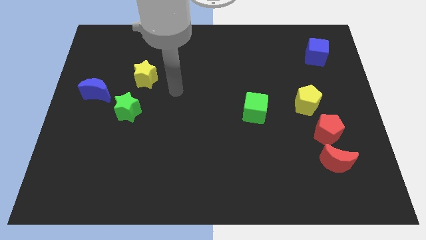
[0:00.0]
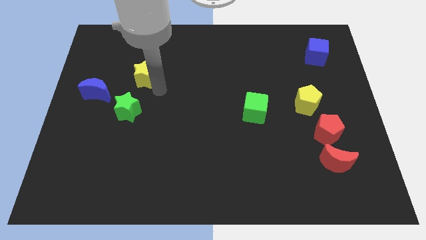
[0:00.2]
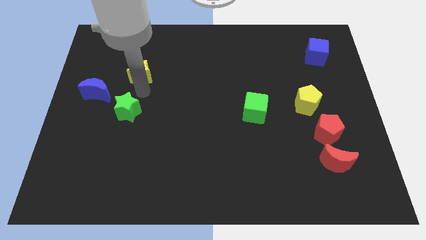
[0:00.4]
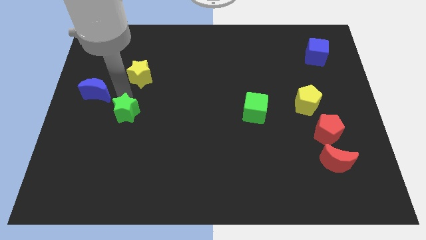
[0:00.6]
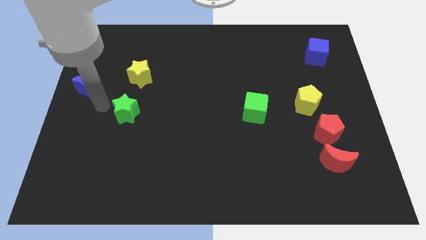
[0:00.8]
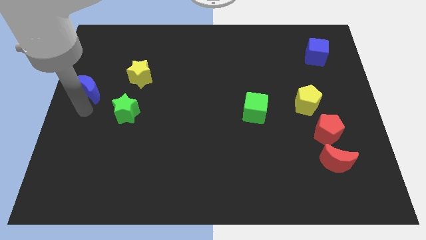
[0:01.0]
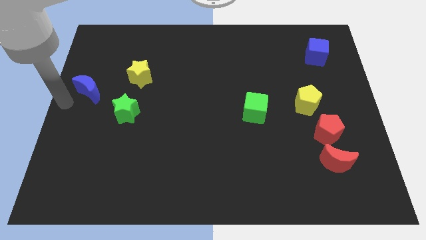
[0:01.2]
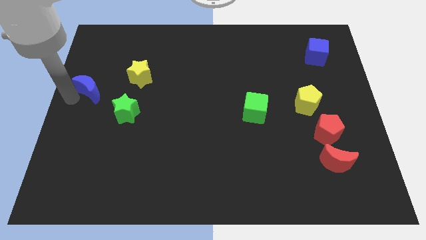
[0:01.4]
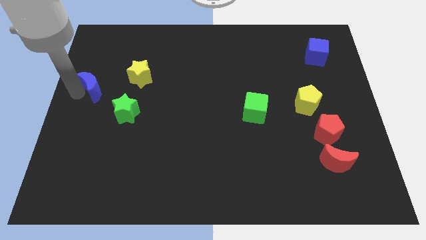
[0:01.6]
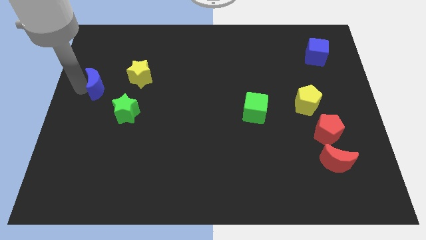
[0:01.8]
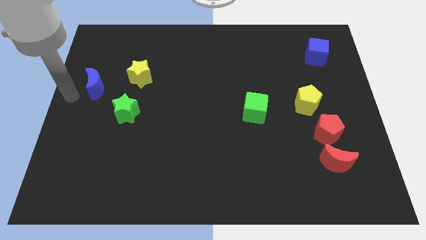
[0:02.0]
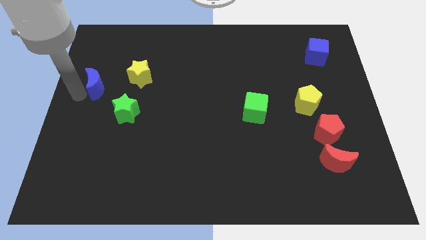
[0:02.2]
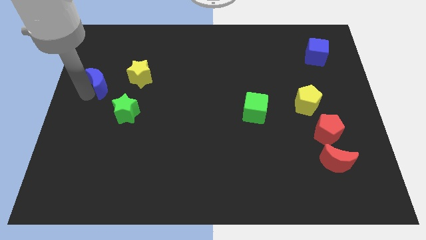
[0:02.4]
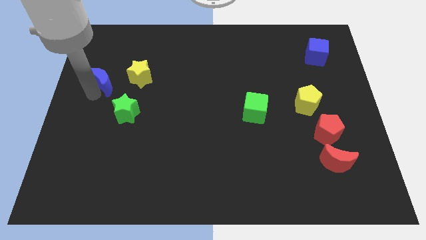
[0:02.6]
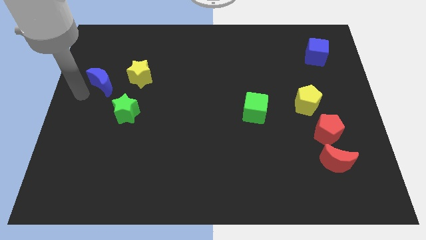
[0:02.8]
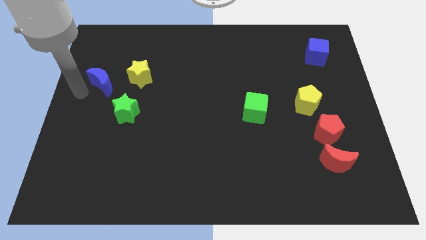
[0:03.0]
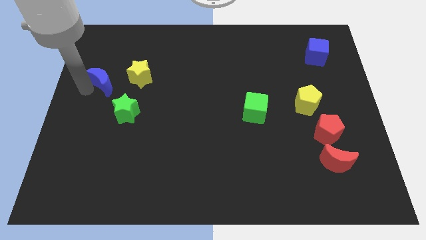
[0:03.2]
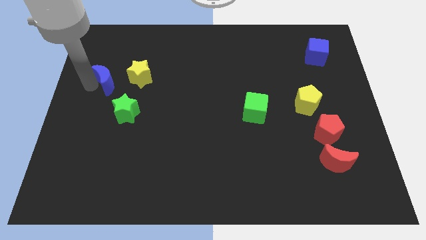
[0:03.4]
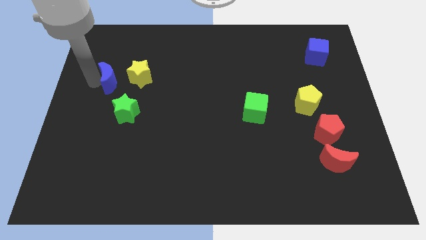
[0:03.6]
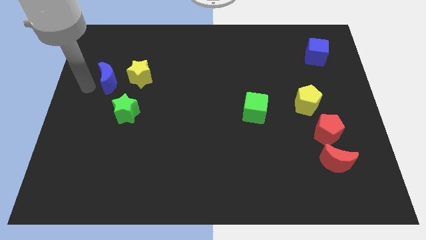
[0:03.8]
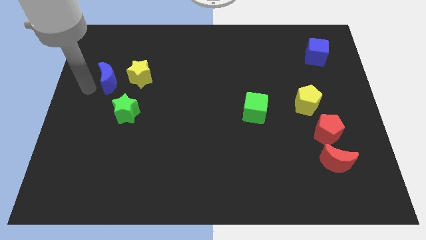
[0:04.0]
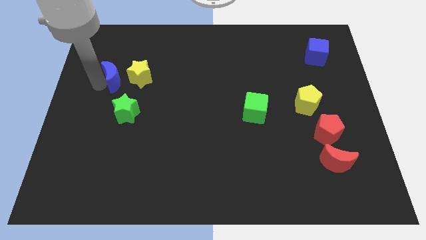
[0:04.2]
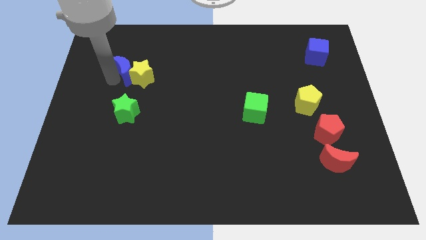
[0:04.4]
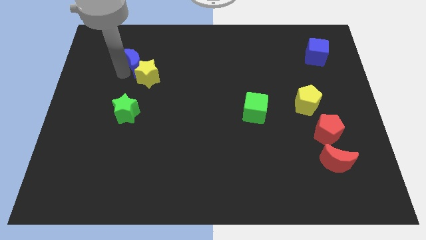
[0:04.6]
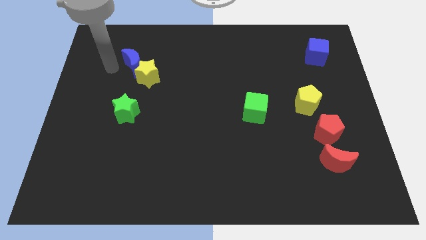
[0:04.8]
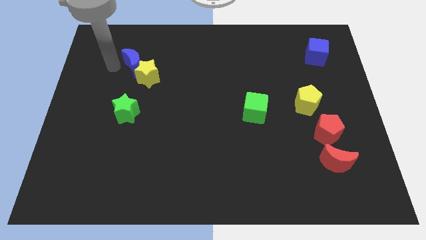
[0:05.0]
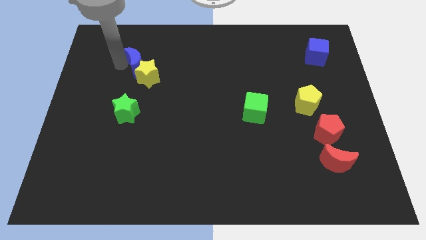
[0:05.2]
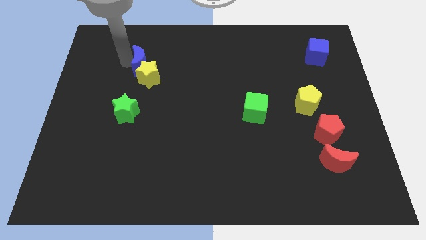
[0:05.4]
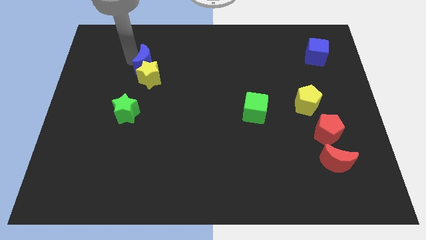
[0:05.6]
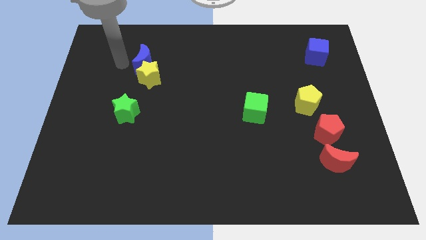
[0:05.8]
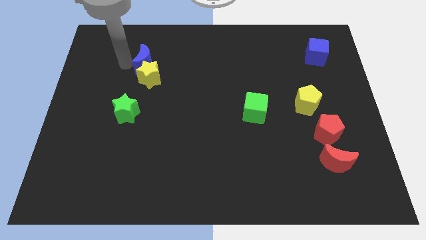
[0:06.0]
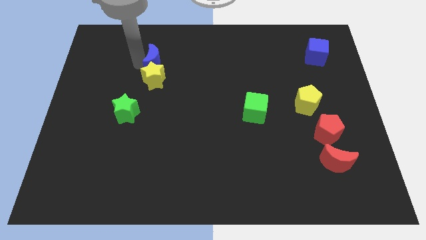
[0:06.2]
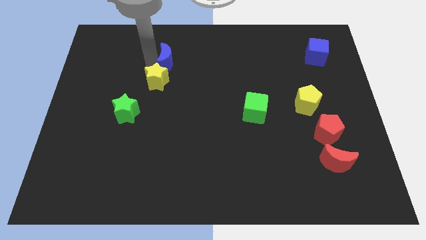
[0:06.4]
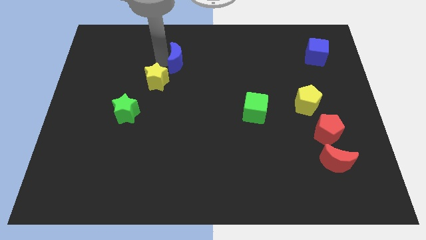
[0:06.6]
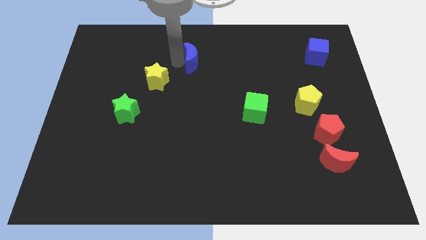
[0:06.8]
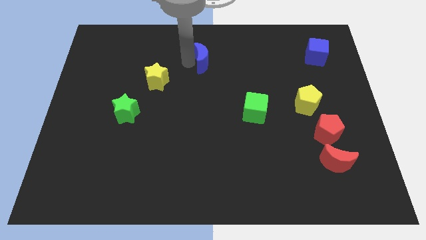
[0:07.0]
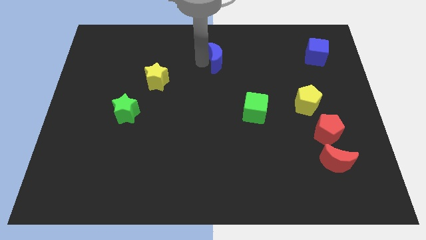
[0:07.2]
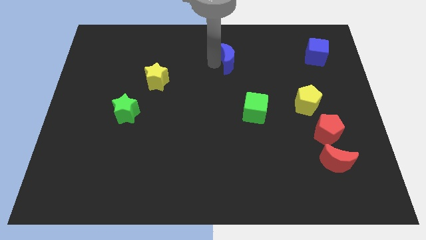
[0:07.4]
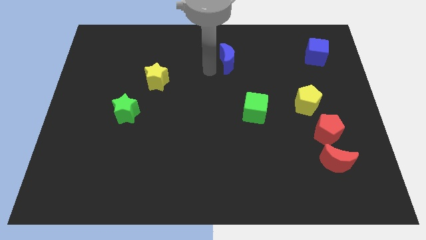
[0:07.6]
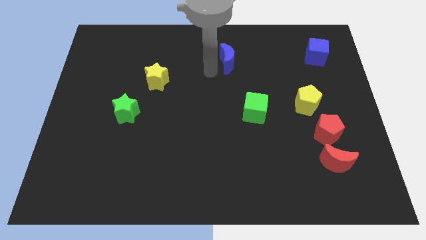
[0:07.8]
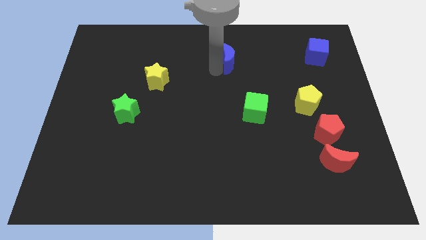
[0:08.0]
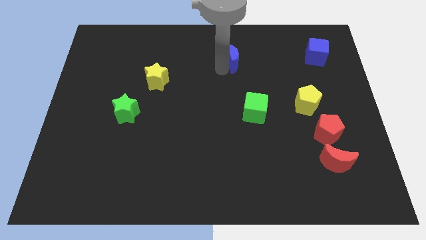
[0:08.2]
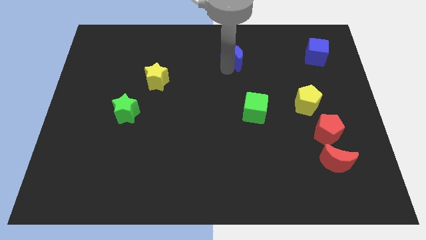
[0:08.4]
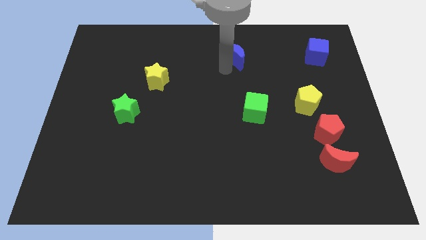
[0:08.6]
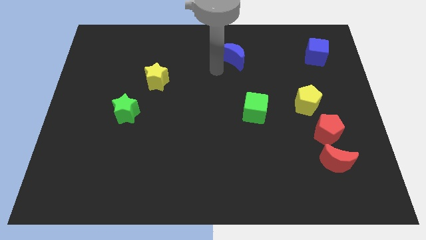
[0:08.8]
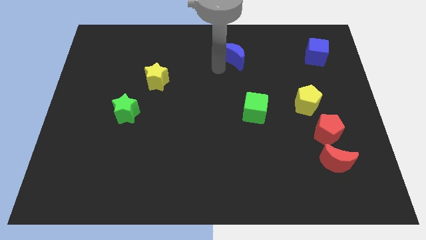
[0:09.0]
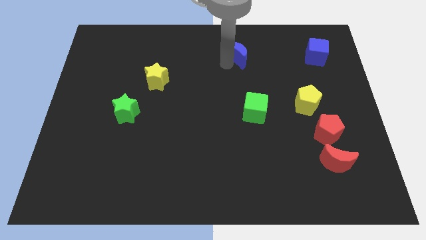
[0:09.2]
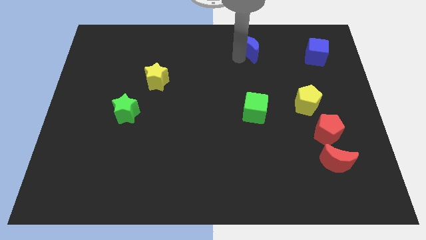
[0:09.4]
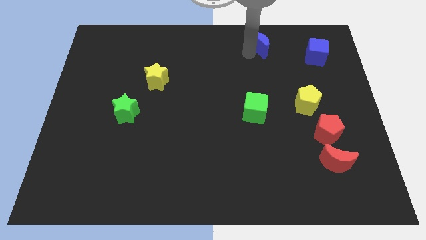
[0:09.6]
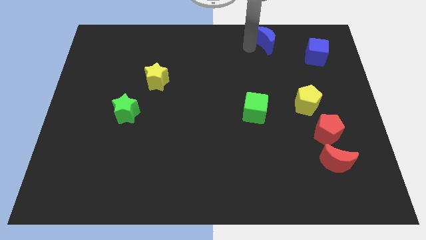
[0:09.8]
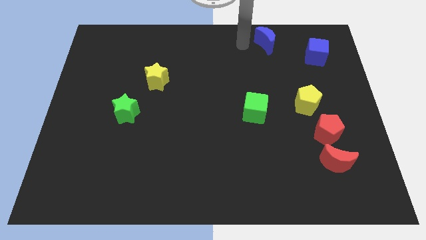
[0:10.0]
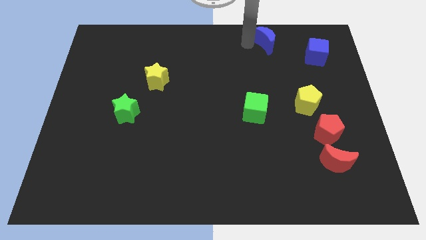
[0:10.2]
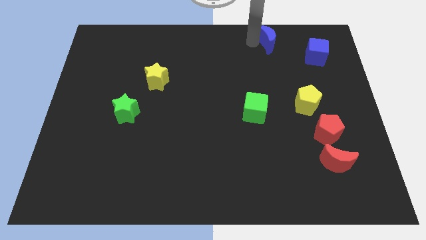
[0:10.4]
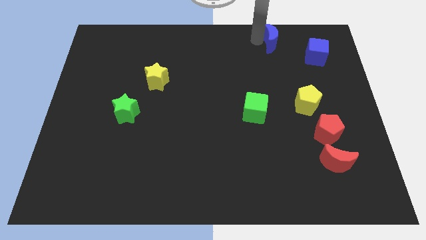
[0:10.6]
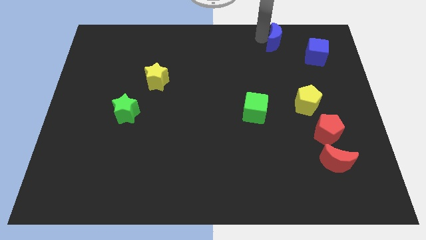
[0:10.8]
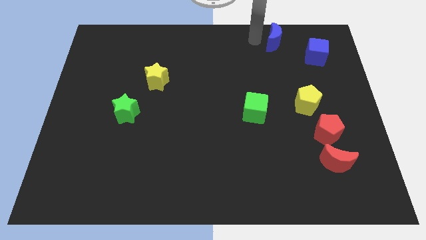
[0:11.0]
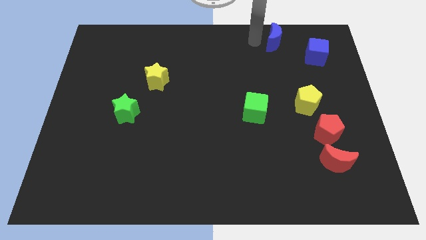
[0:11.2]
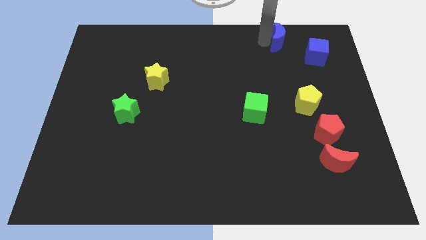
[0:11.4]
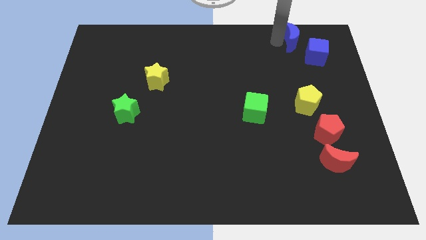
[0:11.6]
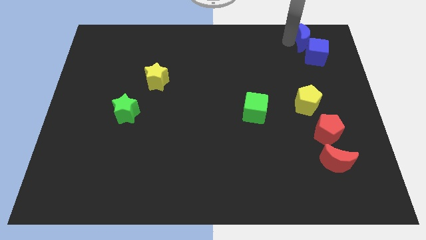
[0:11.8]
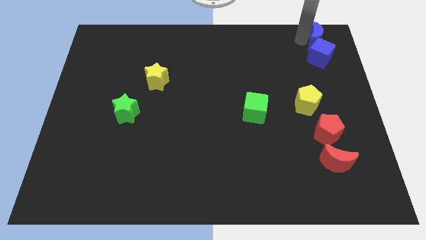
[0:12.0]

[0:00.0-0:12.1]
slide the blue moon to the upper right corner

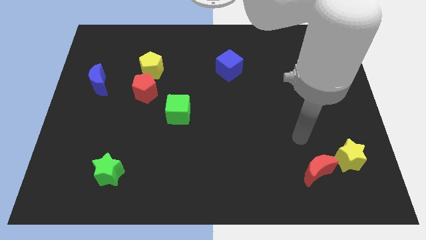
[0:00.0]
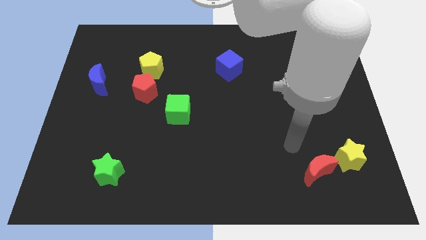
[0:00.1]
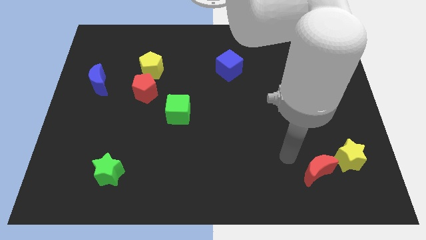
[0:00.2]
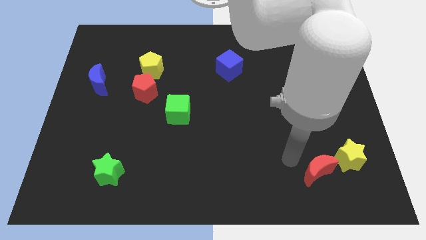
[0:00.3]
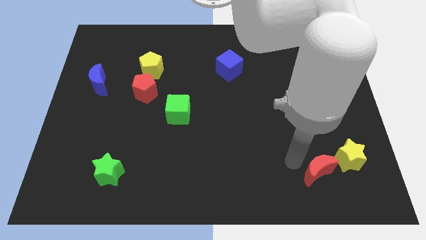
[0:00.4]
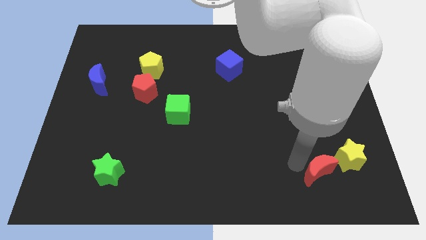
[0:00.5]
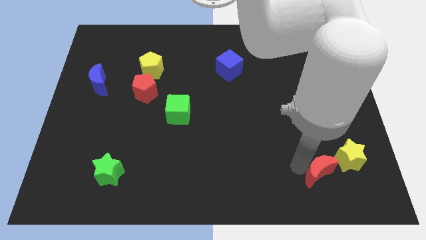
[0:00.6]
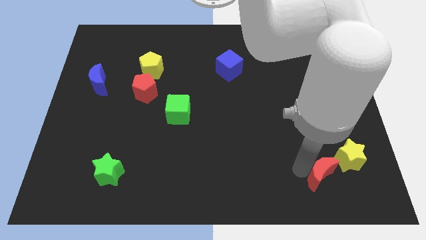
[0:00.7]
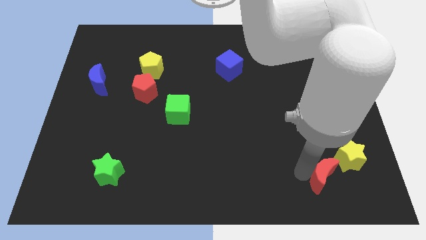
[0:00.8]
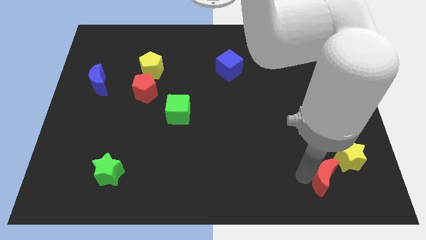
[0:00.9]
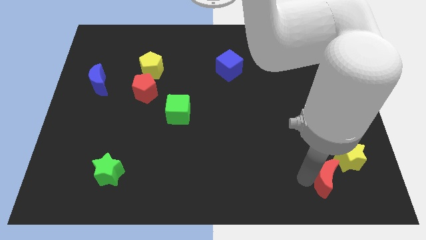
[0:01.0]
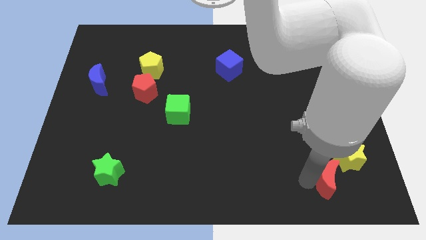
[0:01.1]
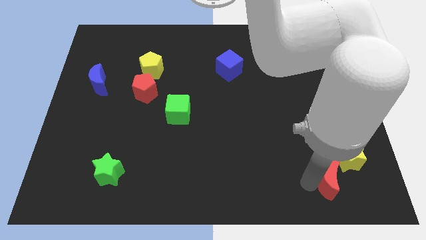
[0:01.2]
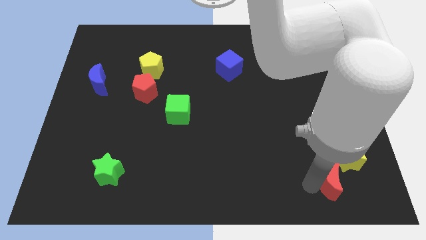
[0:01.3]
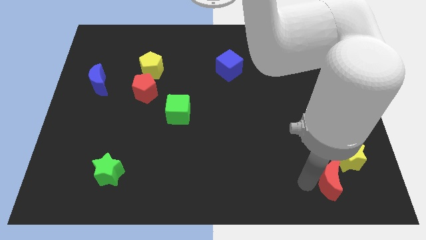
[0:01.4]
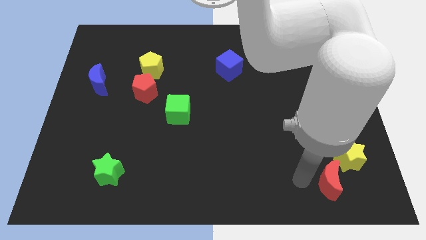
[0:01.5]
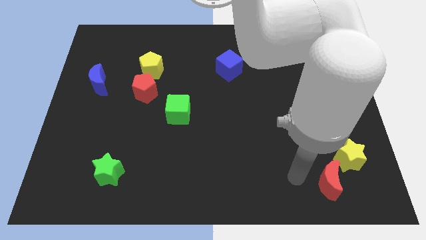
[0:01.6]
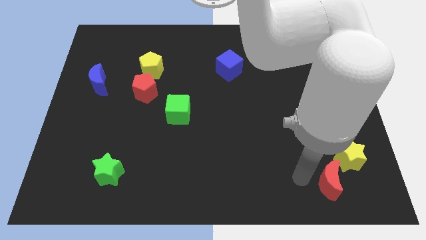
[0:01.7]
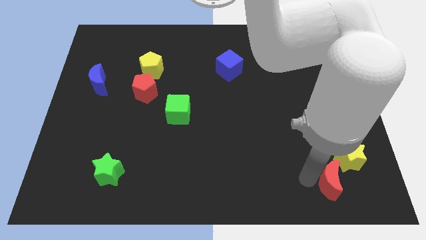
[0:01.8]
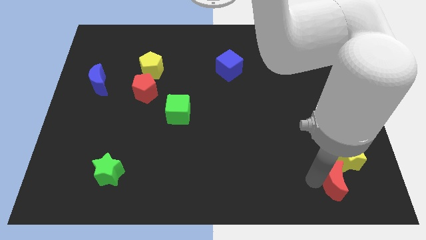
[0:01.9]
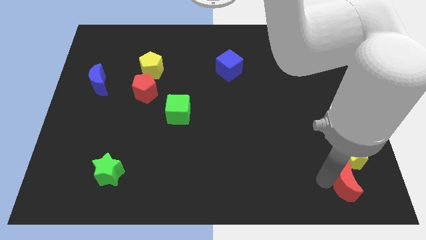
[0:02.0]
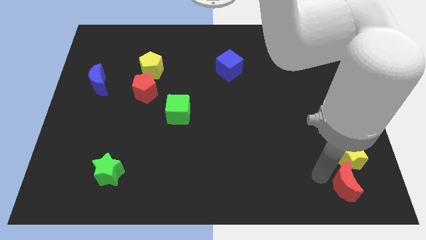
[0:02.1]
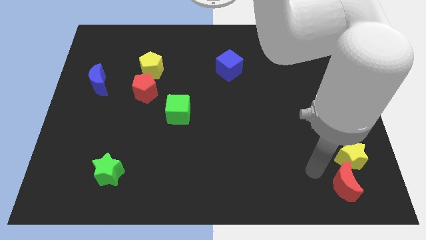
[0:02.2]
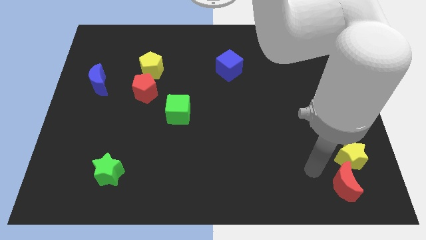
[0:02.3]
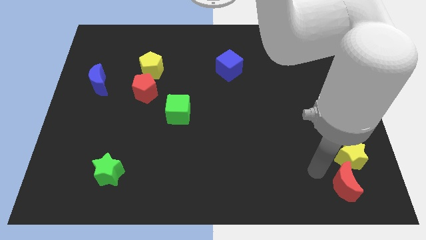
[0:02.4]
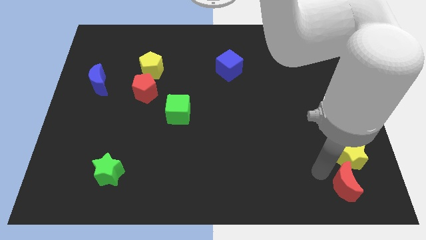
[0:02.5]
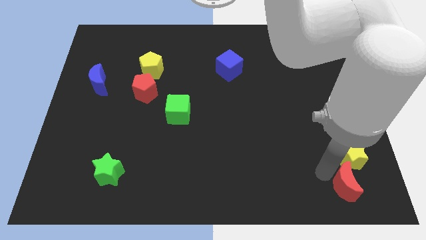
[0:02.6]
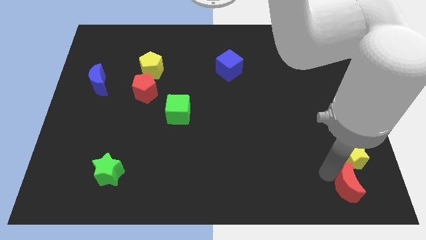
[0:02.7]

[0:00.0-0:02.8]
slide the red moon to the bottom right of the board
